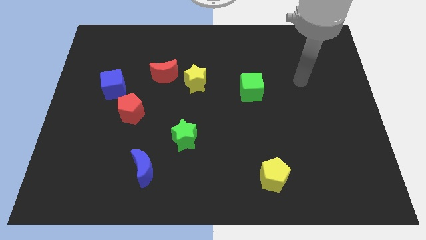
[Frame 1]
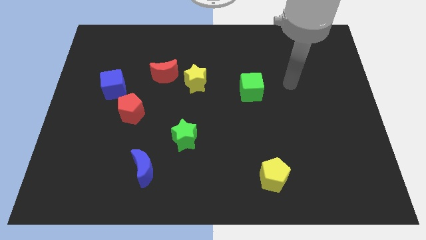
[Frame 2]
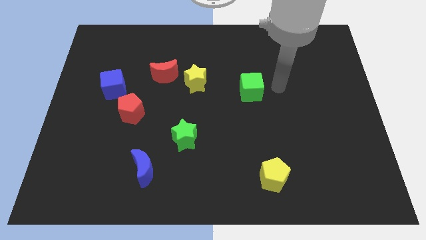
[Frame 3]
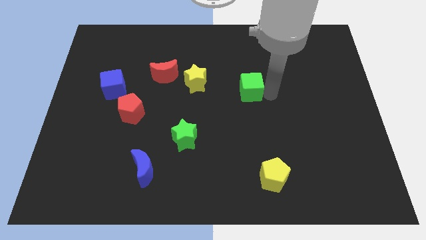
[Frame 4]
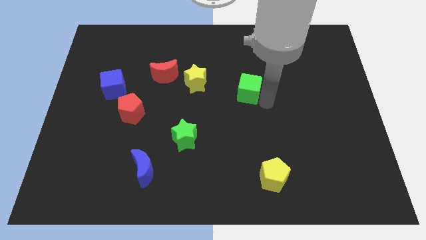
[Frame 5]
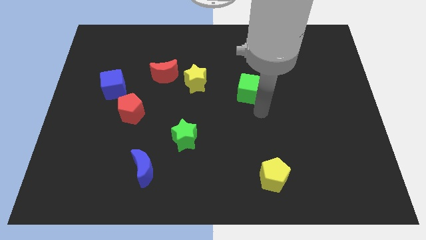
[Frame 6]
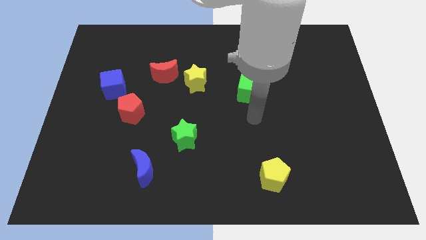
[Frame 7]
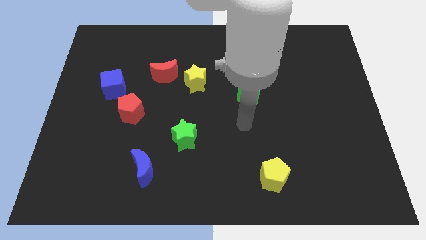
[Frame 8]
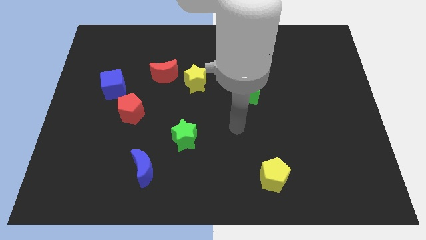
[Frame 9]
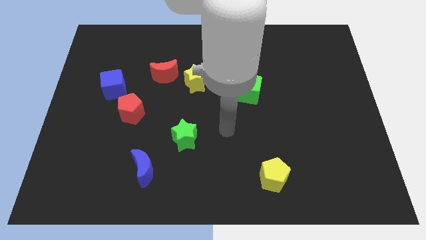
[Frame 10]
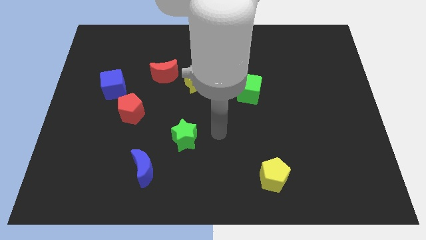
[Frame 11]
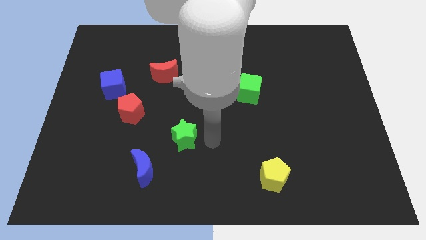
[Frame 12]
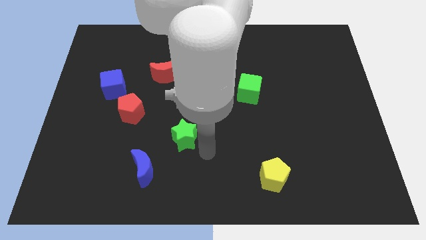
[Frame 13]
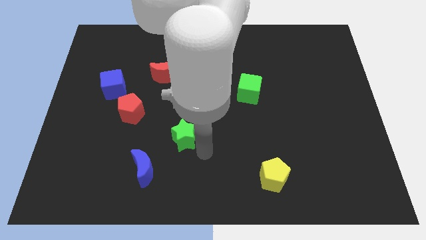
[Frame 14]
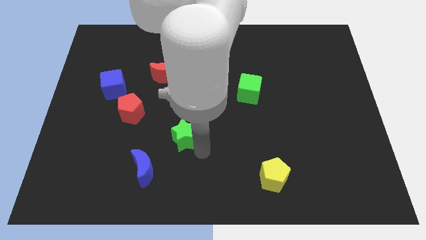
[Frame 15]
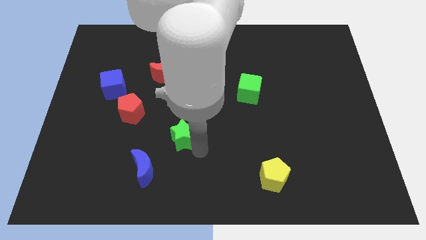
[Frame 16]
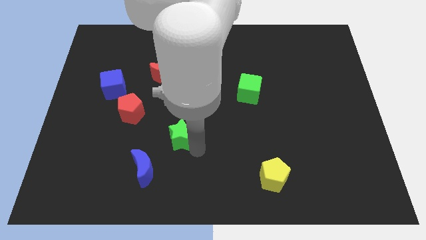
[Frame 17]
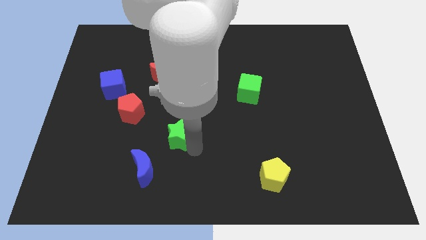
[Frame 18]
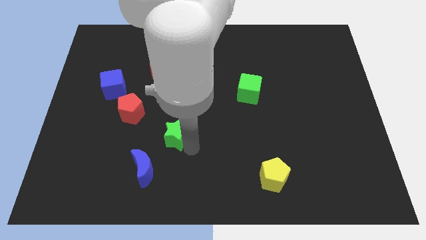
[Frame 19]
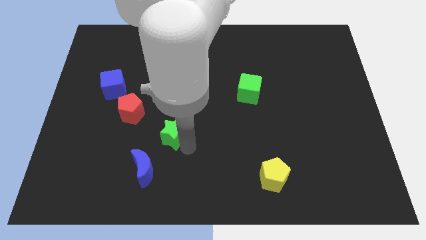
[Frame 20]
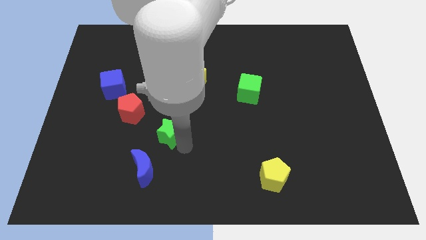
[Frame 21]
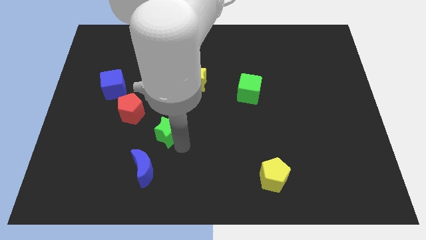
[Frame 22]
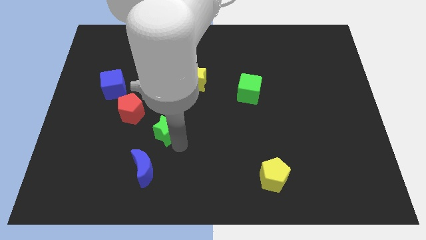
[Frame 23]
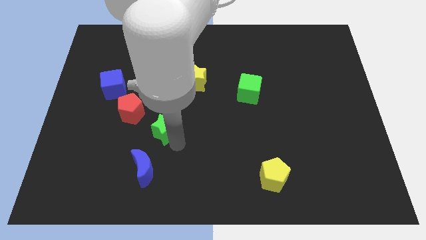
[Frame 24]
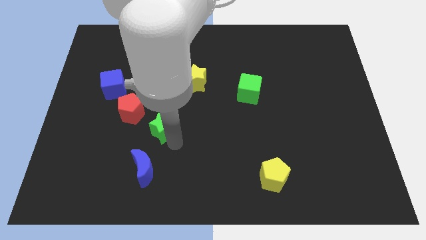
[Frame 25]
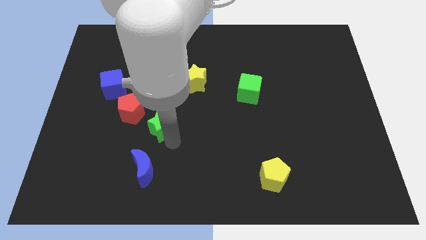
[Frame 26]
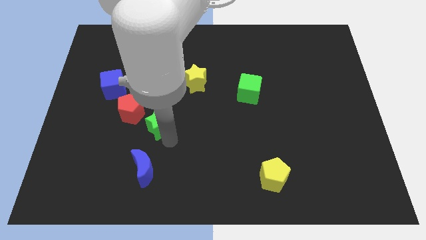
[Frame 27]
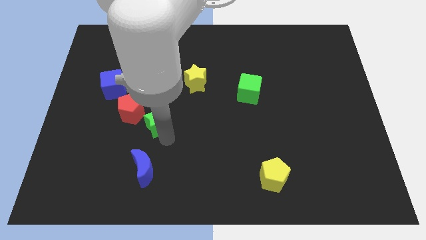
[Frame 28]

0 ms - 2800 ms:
push the green star diagonally upwards and left somewhat

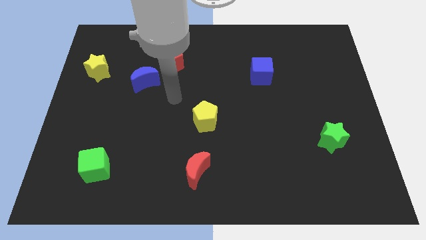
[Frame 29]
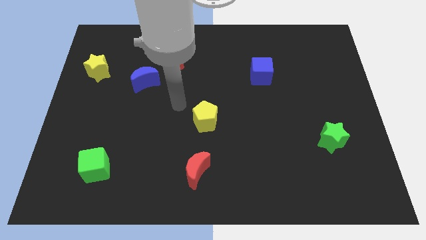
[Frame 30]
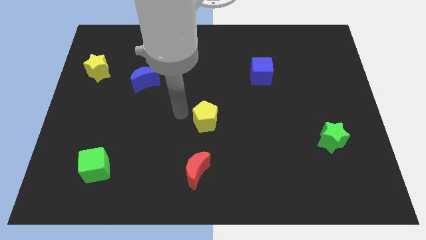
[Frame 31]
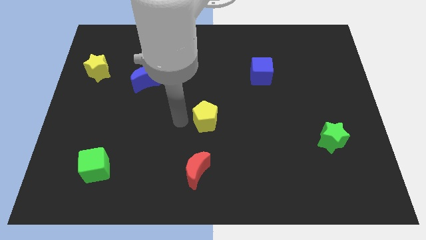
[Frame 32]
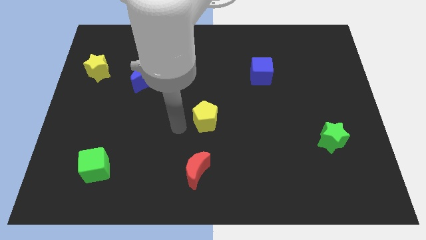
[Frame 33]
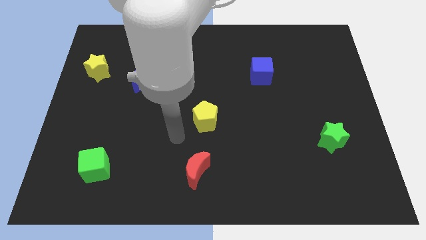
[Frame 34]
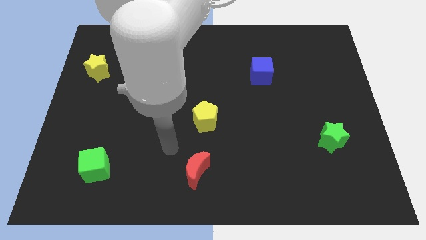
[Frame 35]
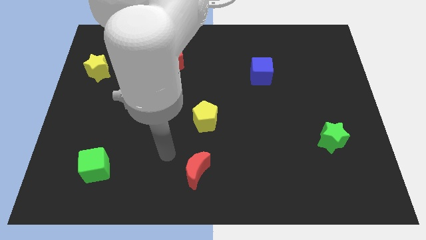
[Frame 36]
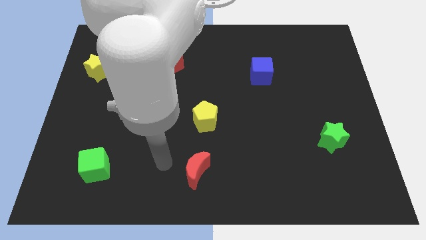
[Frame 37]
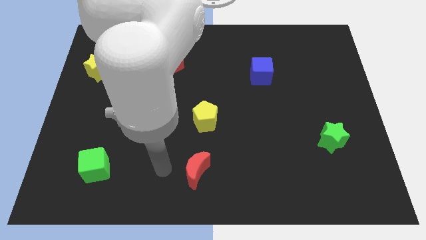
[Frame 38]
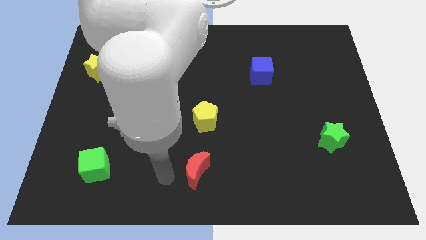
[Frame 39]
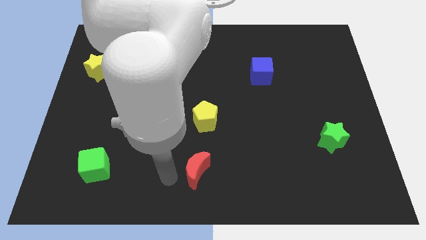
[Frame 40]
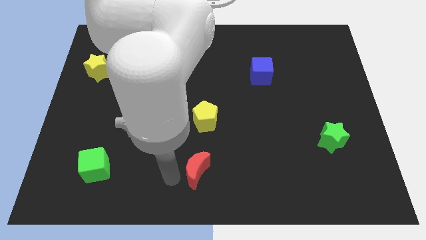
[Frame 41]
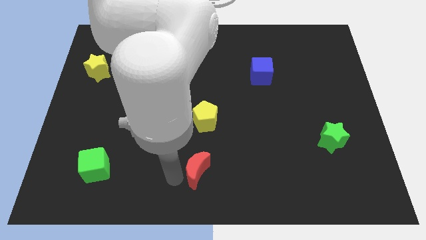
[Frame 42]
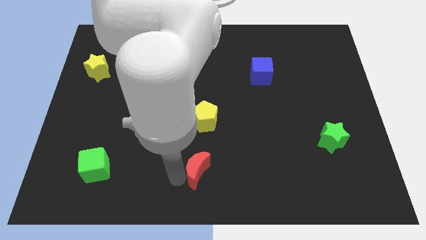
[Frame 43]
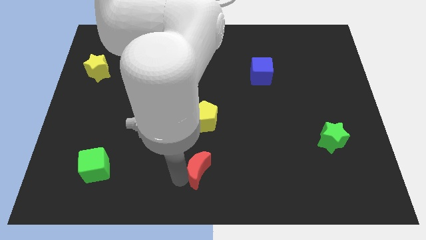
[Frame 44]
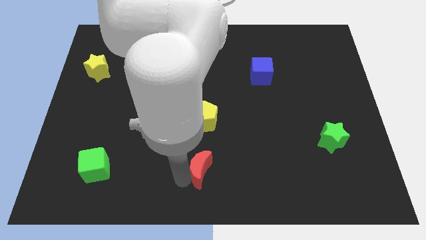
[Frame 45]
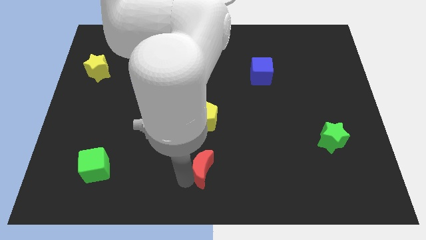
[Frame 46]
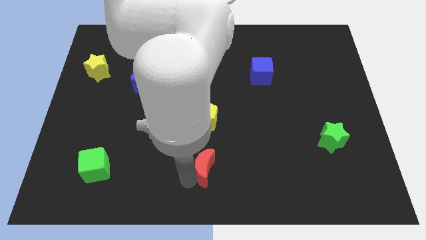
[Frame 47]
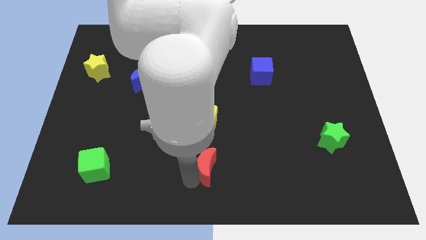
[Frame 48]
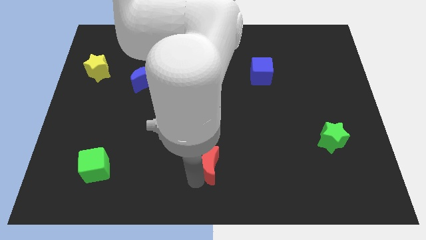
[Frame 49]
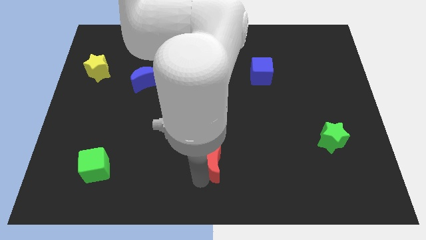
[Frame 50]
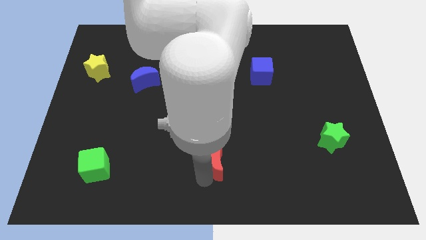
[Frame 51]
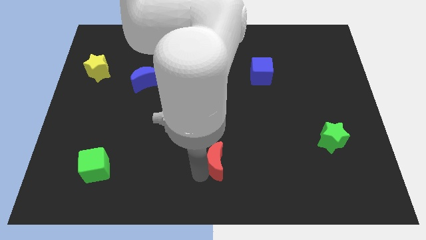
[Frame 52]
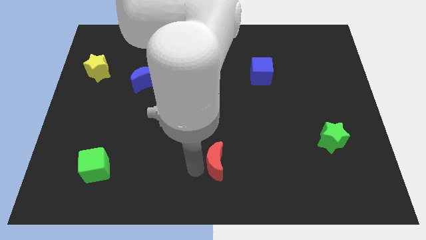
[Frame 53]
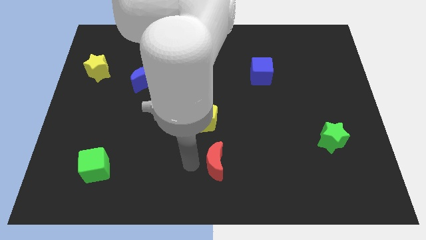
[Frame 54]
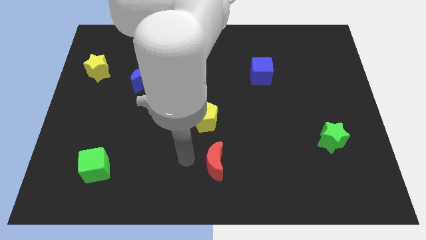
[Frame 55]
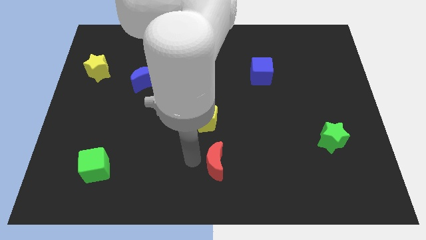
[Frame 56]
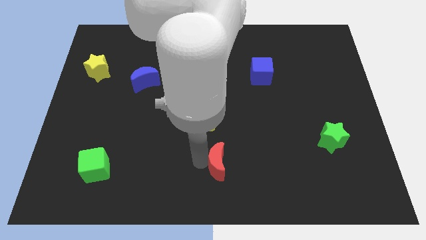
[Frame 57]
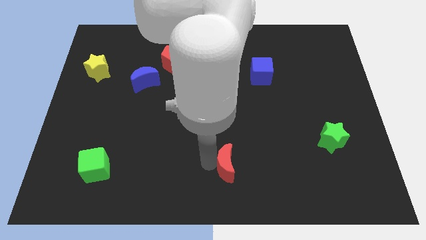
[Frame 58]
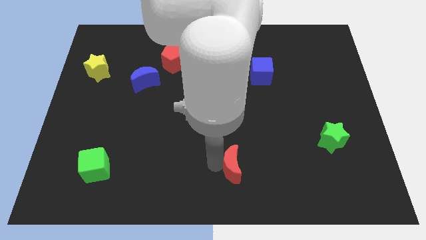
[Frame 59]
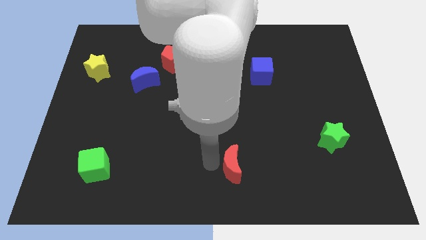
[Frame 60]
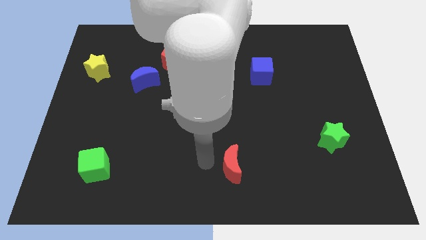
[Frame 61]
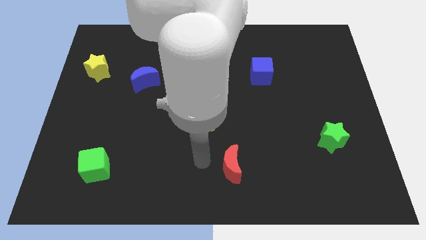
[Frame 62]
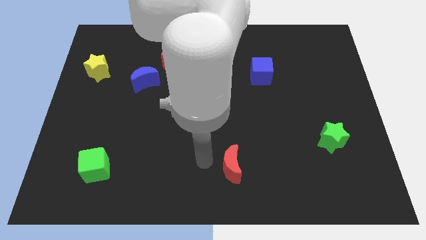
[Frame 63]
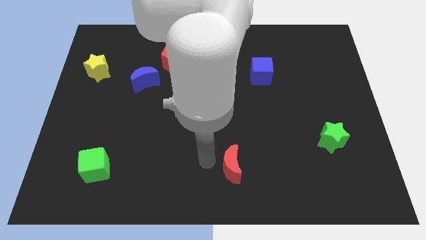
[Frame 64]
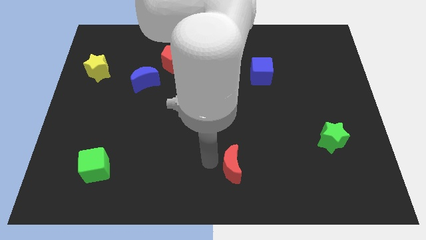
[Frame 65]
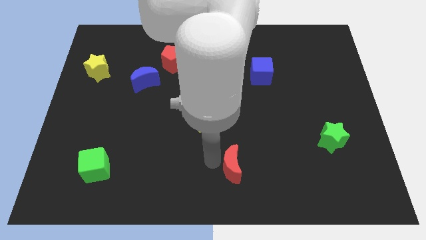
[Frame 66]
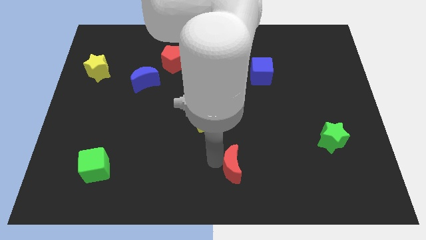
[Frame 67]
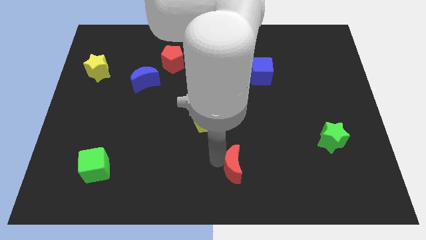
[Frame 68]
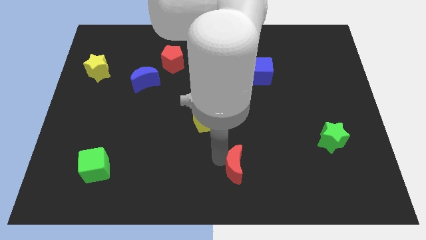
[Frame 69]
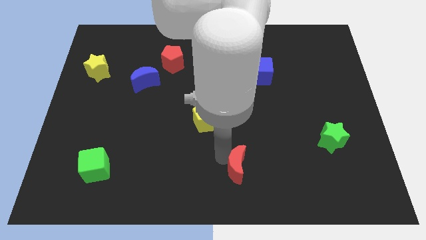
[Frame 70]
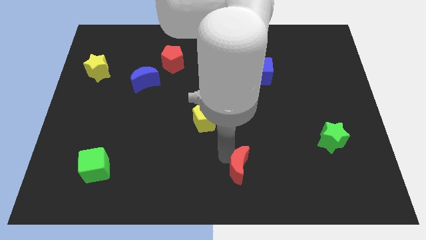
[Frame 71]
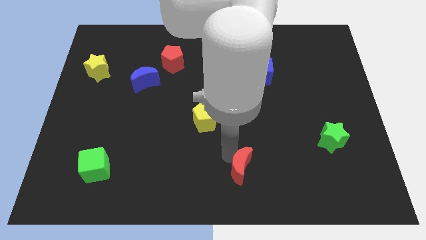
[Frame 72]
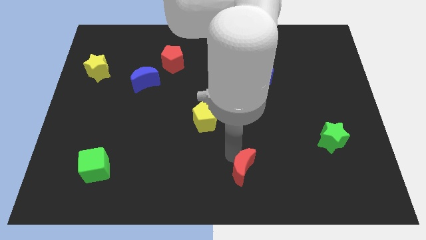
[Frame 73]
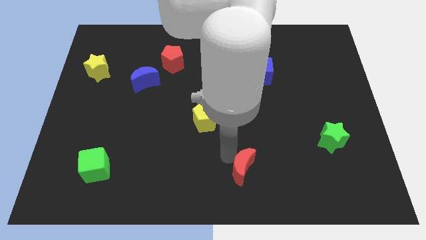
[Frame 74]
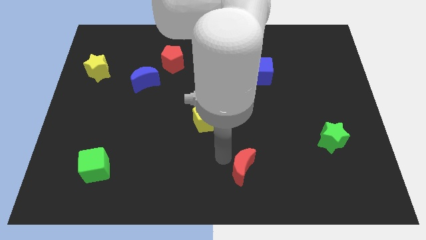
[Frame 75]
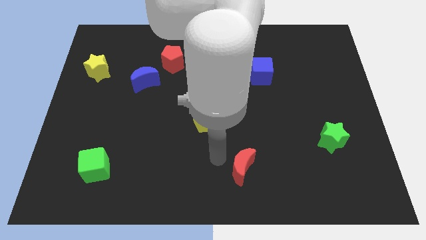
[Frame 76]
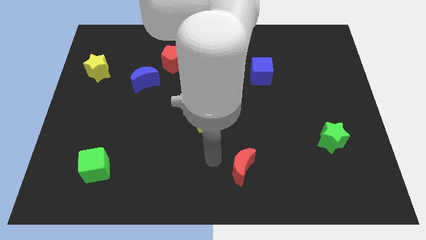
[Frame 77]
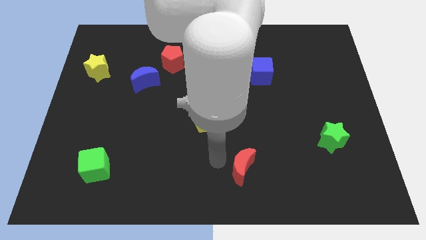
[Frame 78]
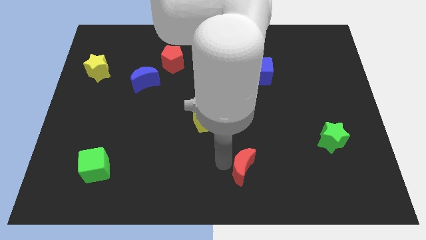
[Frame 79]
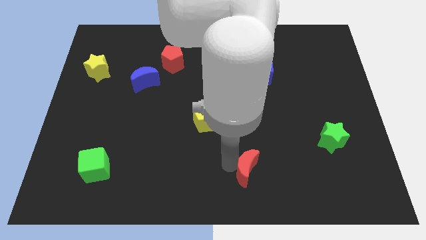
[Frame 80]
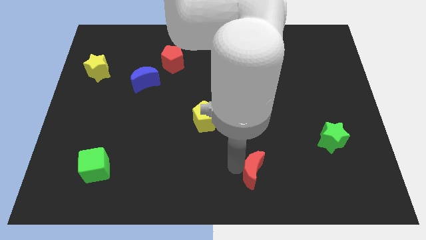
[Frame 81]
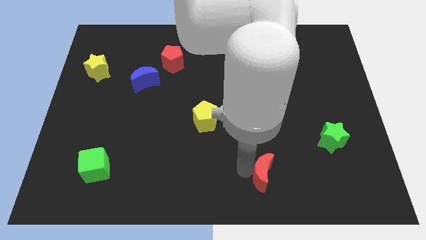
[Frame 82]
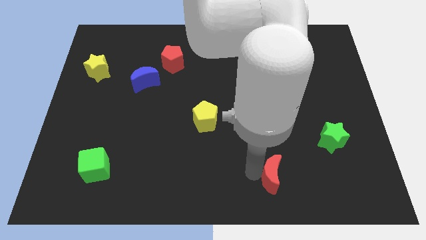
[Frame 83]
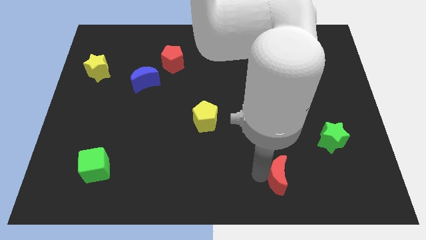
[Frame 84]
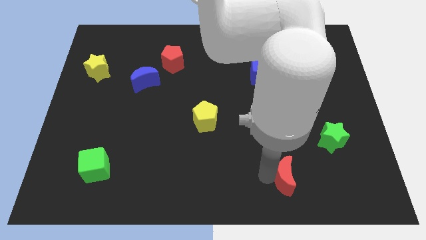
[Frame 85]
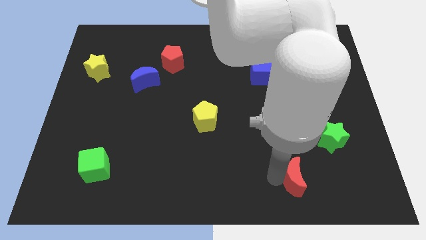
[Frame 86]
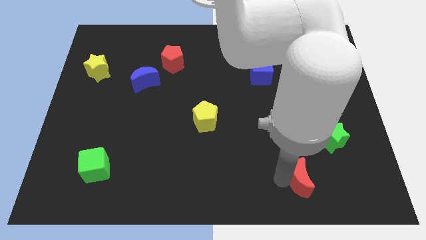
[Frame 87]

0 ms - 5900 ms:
move the red moon right
